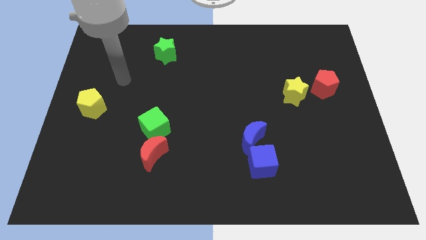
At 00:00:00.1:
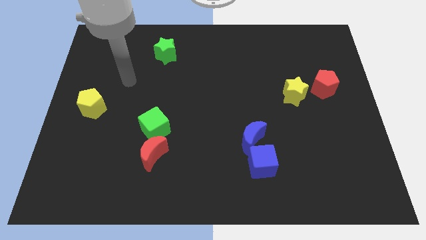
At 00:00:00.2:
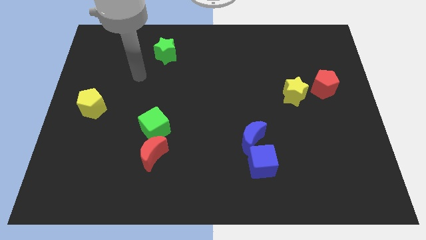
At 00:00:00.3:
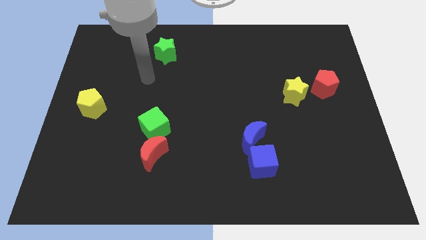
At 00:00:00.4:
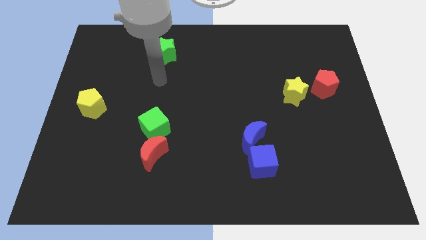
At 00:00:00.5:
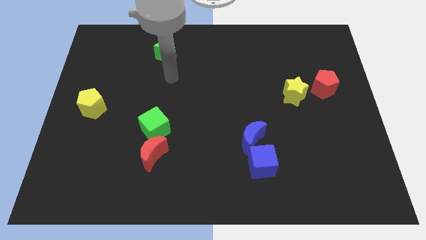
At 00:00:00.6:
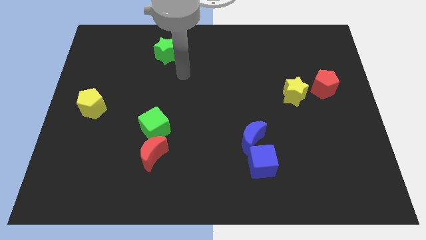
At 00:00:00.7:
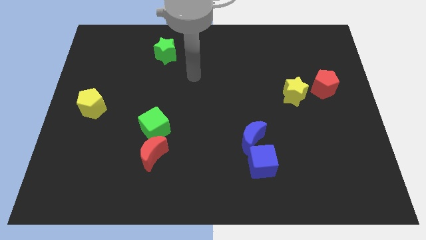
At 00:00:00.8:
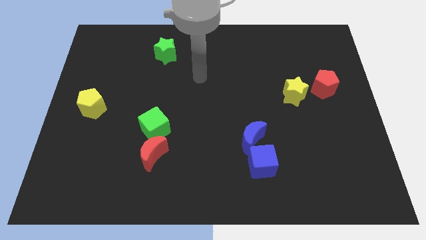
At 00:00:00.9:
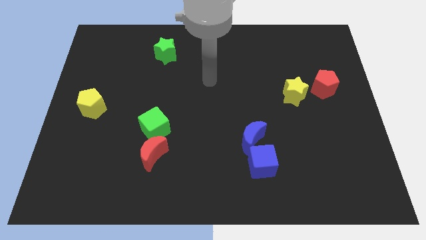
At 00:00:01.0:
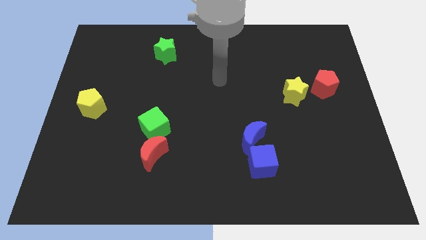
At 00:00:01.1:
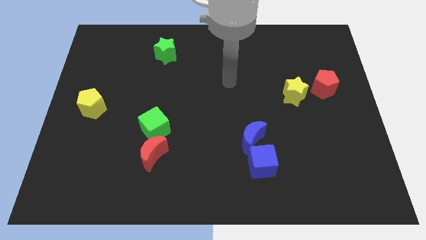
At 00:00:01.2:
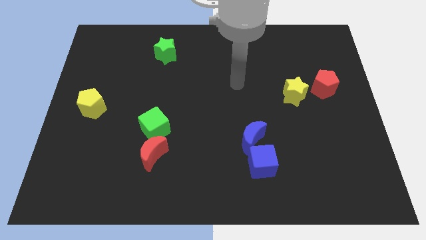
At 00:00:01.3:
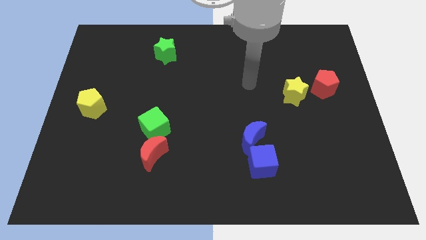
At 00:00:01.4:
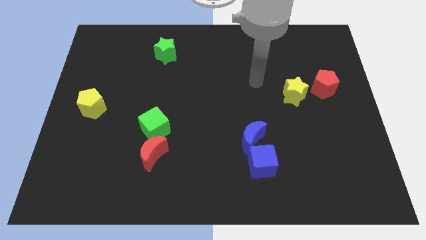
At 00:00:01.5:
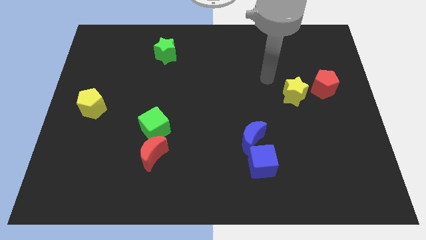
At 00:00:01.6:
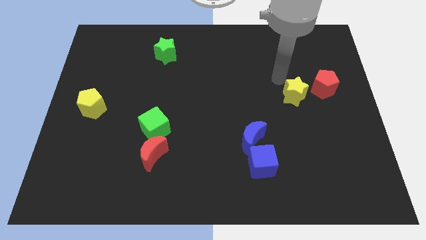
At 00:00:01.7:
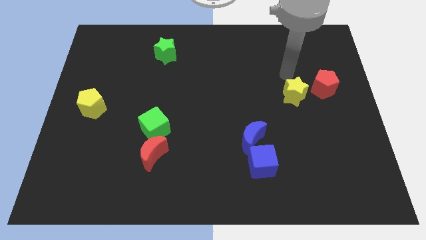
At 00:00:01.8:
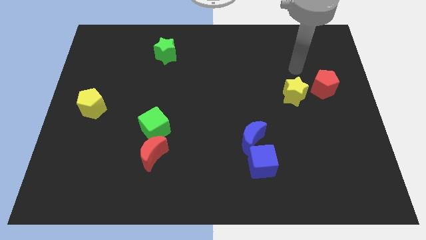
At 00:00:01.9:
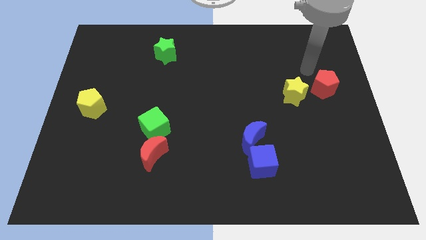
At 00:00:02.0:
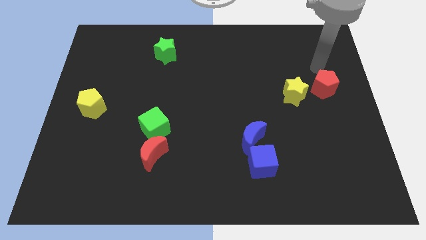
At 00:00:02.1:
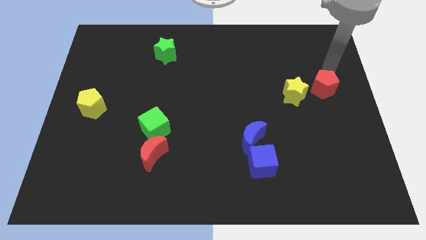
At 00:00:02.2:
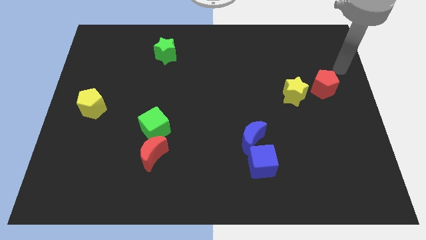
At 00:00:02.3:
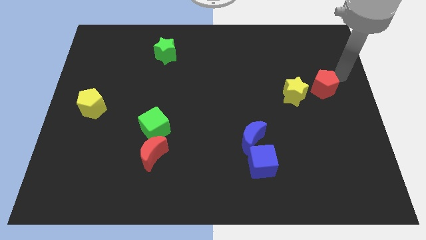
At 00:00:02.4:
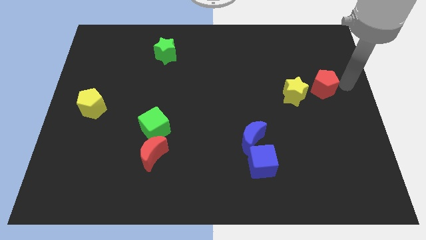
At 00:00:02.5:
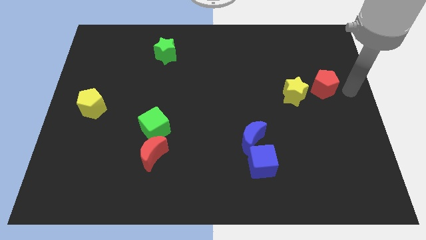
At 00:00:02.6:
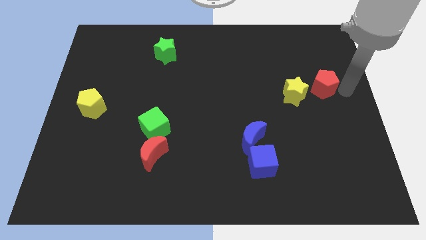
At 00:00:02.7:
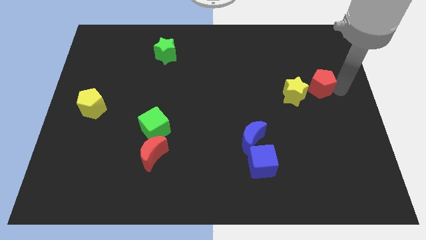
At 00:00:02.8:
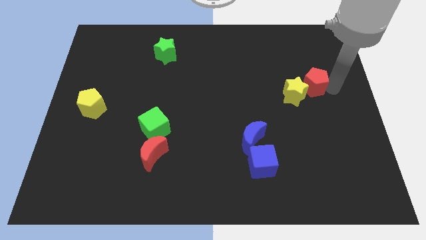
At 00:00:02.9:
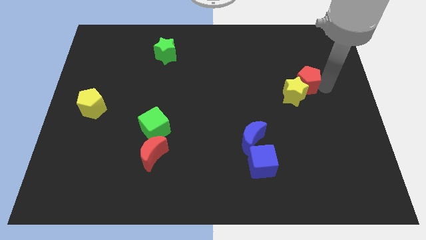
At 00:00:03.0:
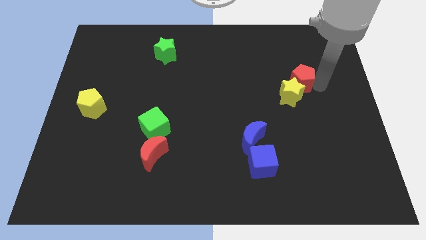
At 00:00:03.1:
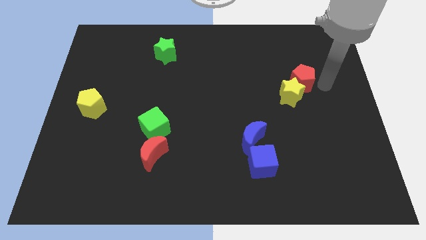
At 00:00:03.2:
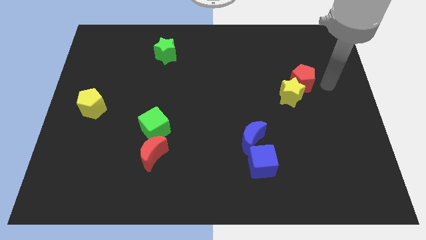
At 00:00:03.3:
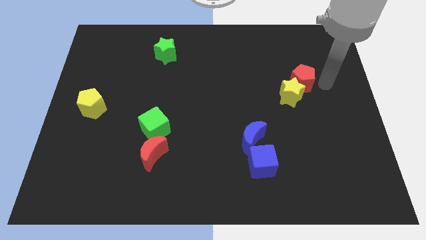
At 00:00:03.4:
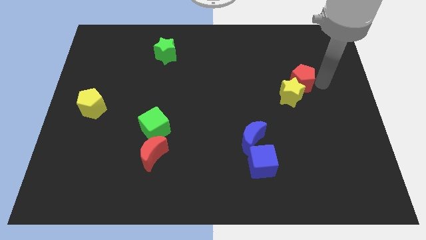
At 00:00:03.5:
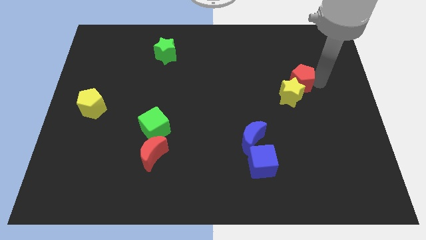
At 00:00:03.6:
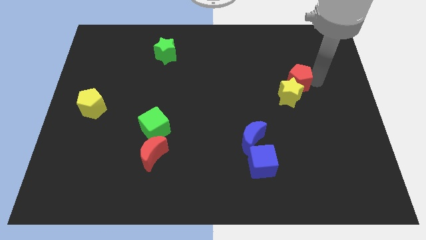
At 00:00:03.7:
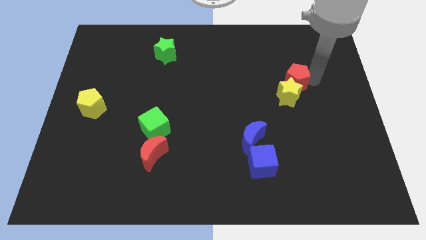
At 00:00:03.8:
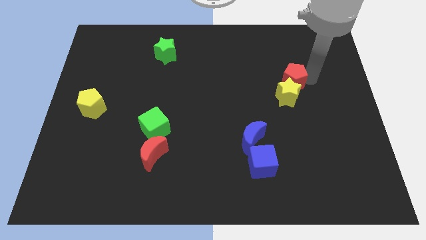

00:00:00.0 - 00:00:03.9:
move the red pentagon left somewhat

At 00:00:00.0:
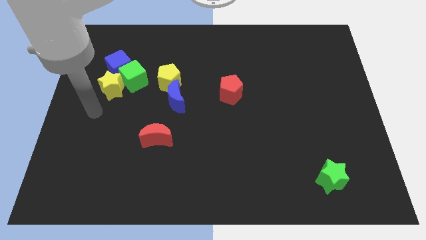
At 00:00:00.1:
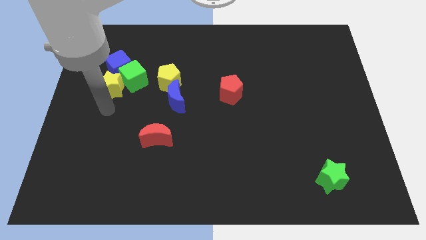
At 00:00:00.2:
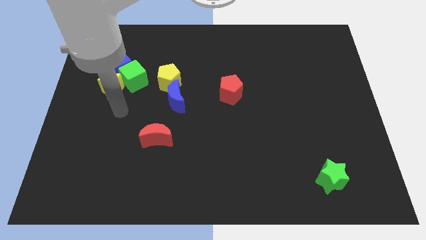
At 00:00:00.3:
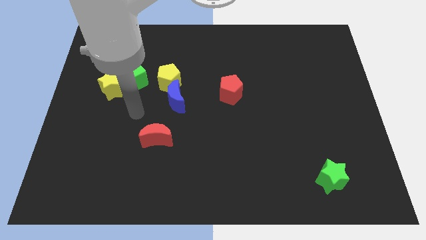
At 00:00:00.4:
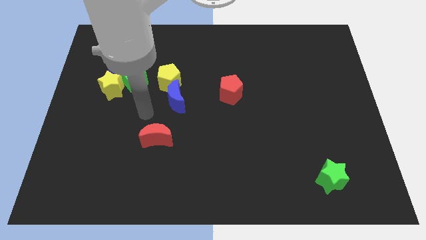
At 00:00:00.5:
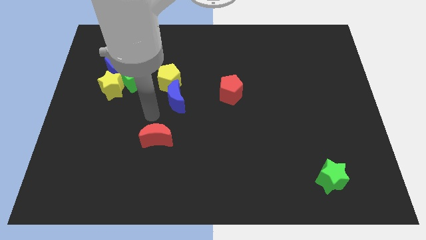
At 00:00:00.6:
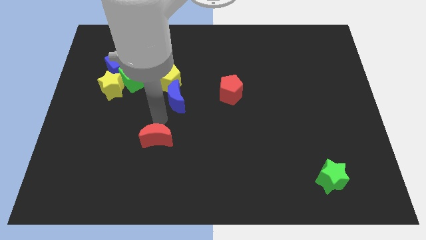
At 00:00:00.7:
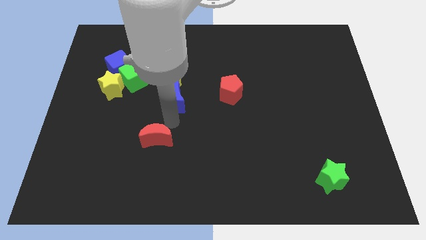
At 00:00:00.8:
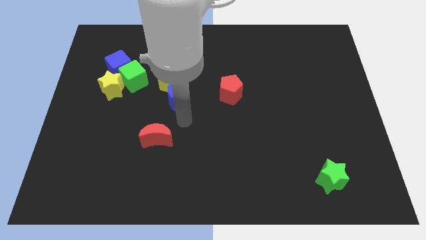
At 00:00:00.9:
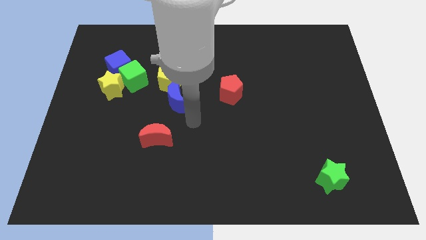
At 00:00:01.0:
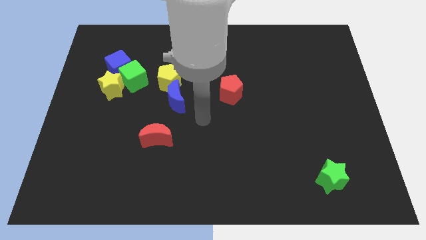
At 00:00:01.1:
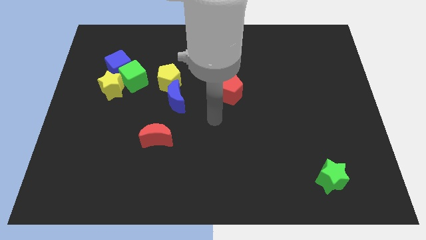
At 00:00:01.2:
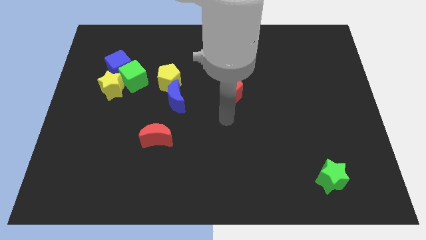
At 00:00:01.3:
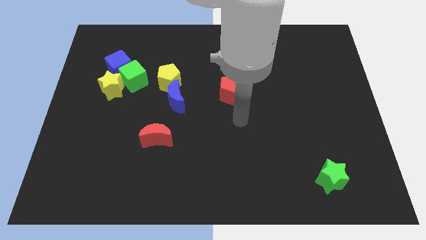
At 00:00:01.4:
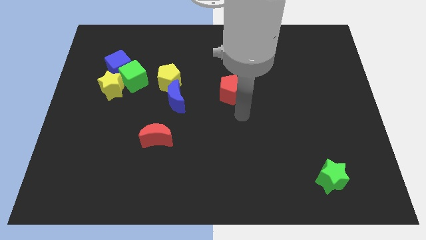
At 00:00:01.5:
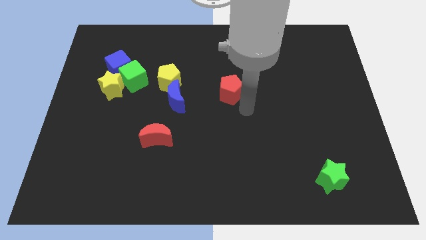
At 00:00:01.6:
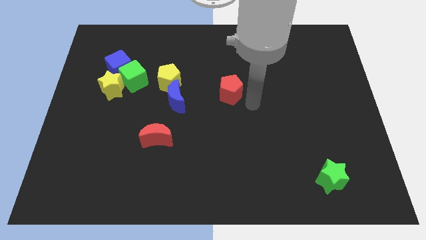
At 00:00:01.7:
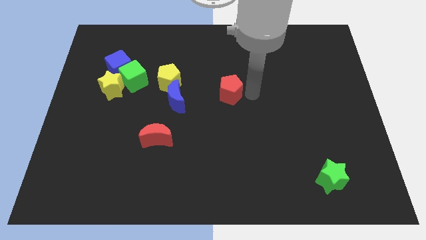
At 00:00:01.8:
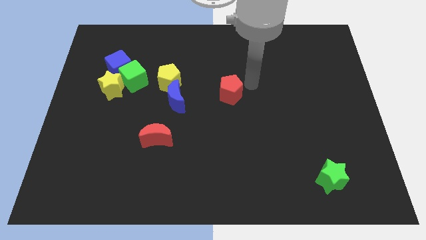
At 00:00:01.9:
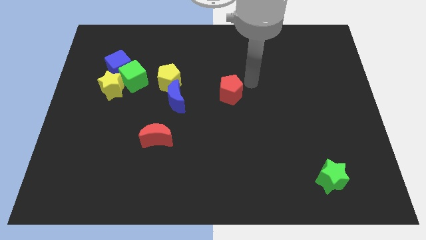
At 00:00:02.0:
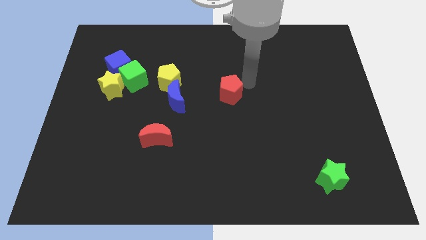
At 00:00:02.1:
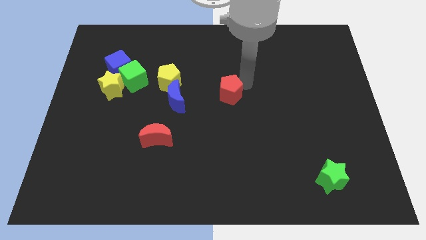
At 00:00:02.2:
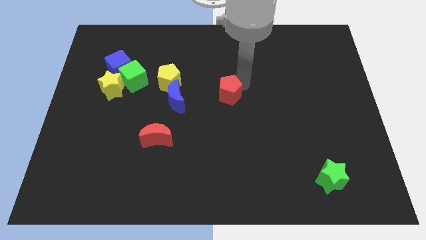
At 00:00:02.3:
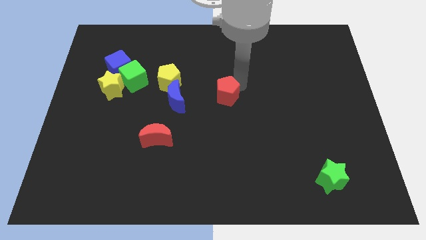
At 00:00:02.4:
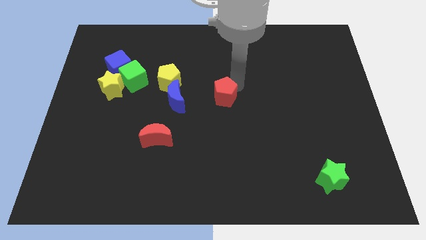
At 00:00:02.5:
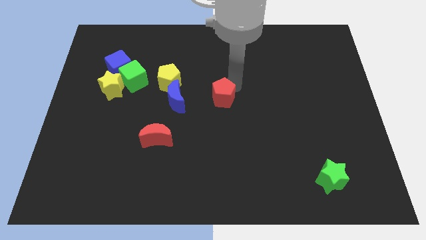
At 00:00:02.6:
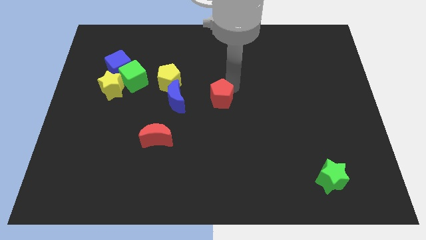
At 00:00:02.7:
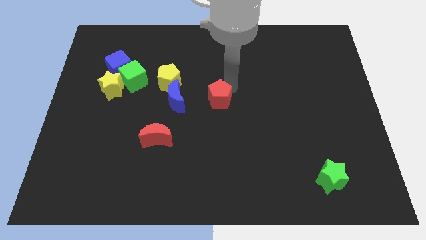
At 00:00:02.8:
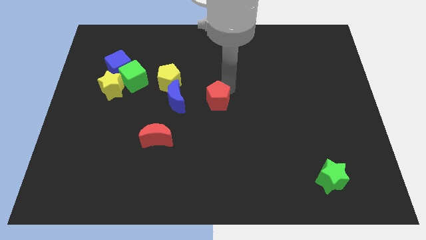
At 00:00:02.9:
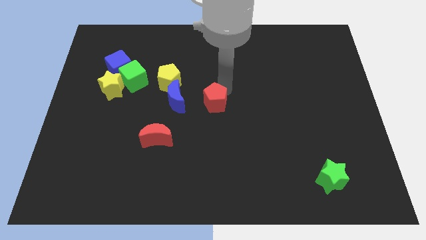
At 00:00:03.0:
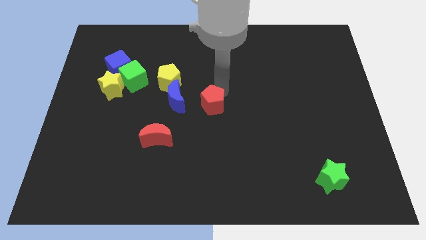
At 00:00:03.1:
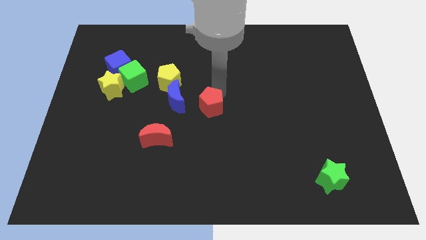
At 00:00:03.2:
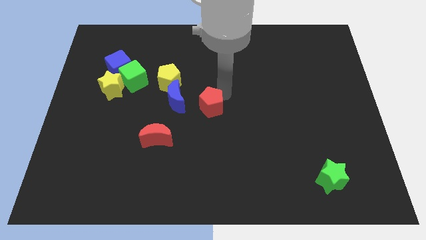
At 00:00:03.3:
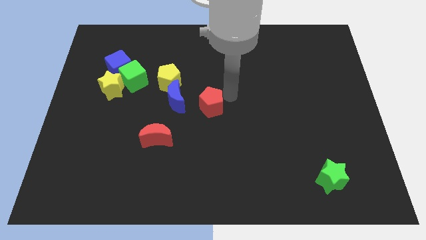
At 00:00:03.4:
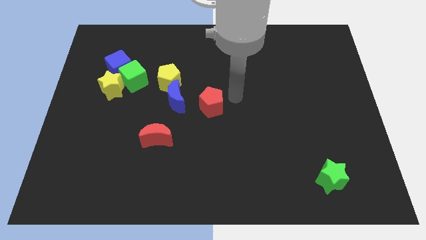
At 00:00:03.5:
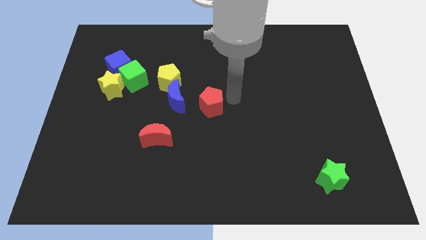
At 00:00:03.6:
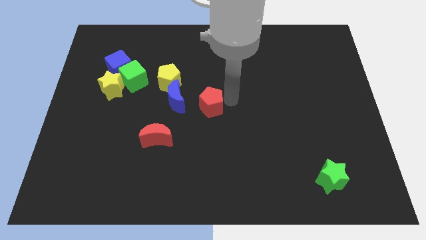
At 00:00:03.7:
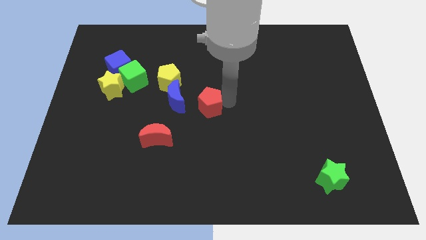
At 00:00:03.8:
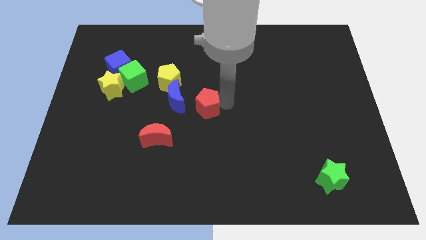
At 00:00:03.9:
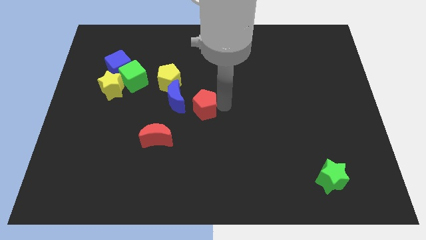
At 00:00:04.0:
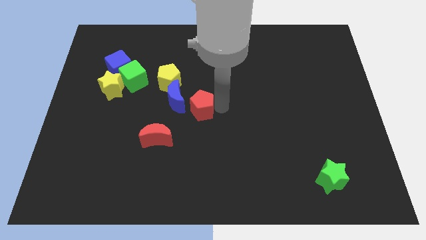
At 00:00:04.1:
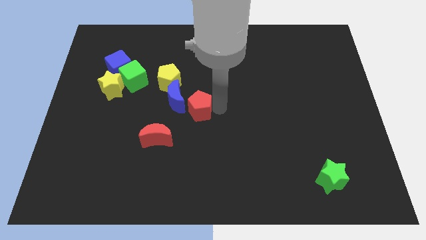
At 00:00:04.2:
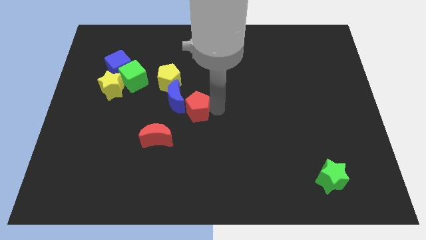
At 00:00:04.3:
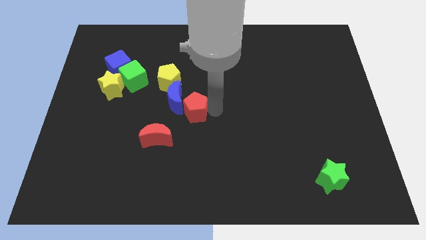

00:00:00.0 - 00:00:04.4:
slightly slide the red pentagon left
